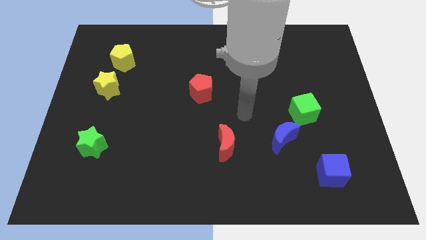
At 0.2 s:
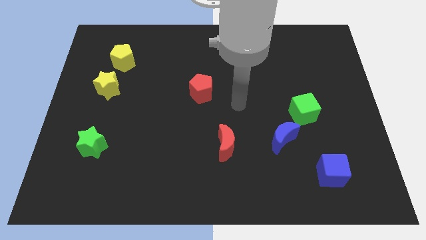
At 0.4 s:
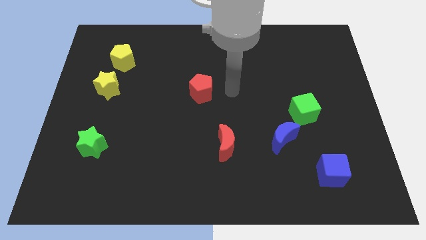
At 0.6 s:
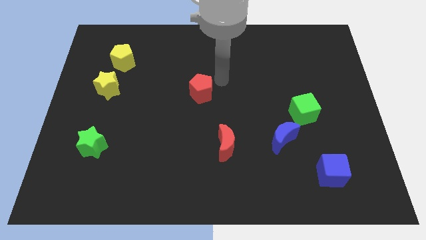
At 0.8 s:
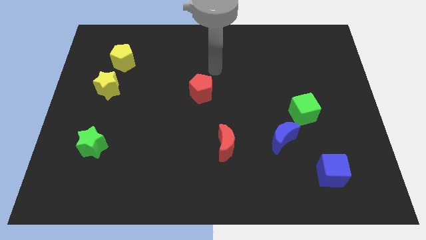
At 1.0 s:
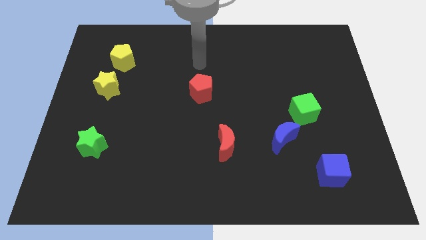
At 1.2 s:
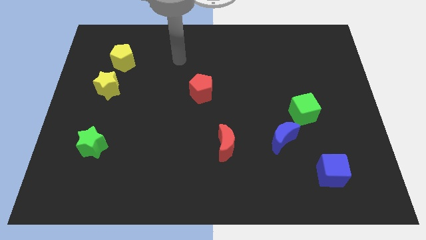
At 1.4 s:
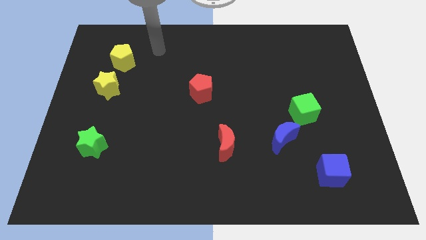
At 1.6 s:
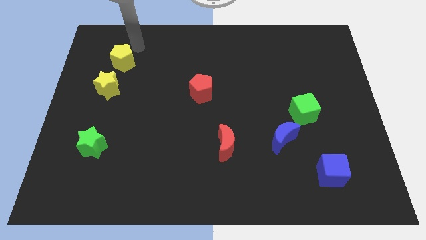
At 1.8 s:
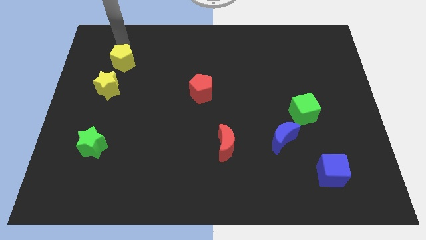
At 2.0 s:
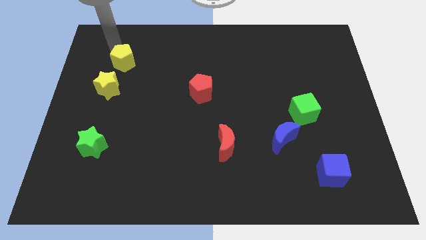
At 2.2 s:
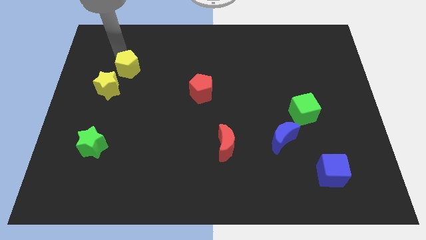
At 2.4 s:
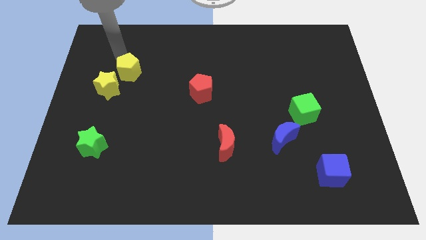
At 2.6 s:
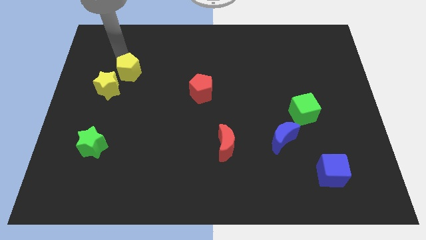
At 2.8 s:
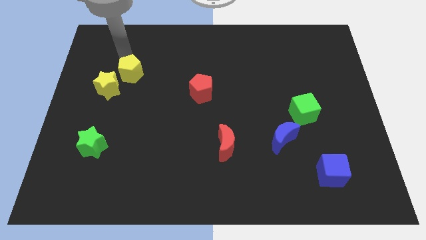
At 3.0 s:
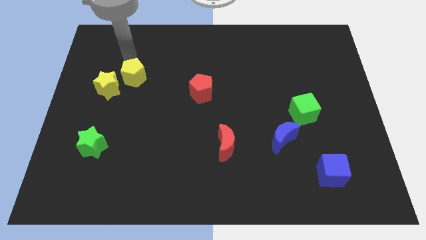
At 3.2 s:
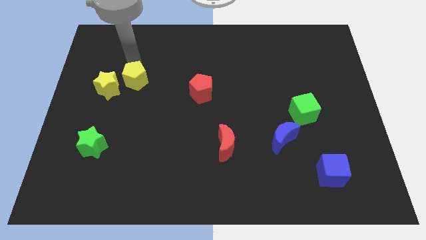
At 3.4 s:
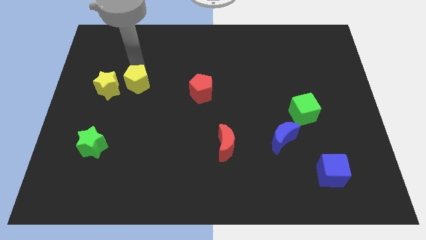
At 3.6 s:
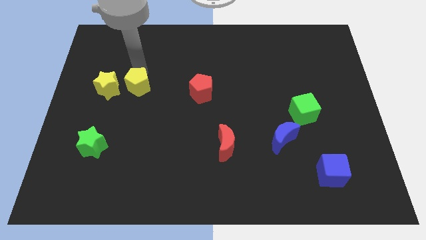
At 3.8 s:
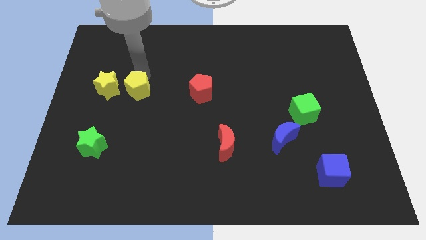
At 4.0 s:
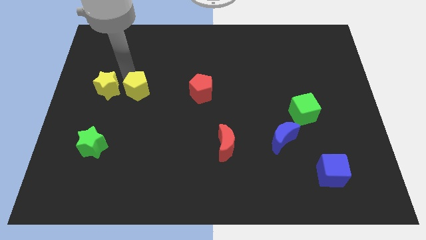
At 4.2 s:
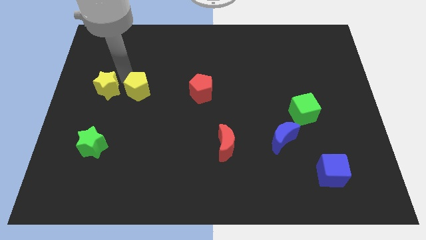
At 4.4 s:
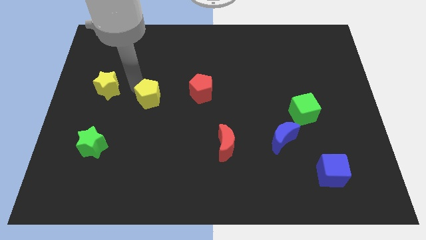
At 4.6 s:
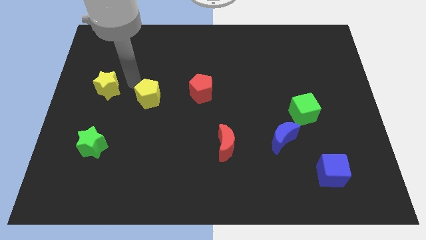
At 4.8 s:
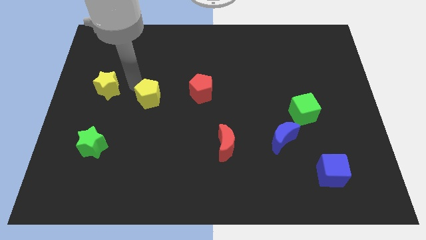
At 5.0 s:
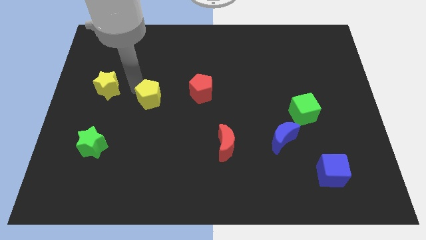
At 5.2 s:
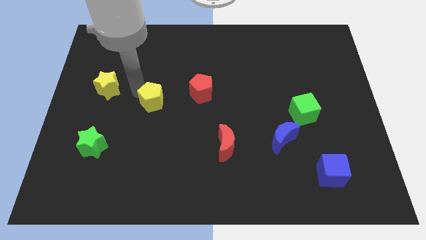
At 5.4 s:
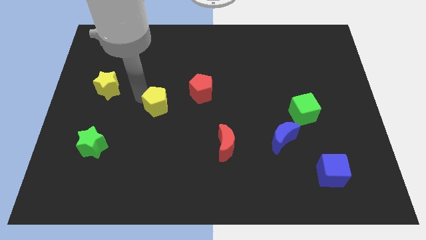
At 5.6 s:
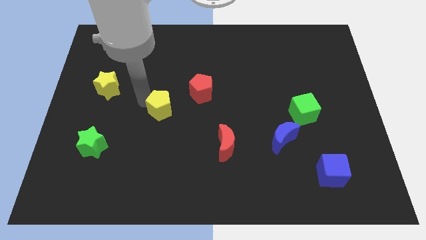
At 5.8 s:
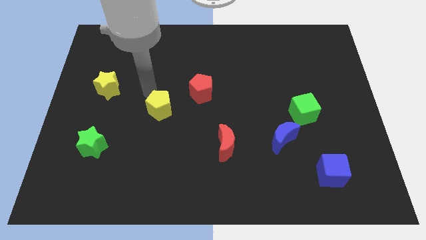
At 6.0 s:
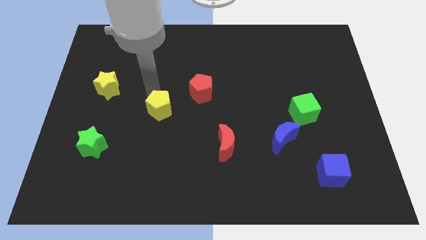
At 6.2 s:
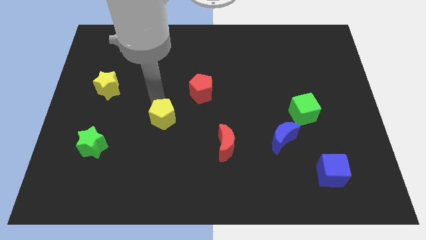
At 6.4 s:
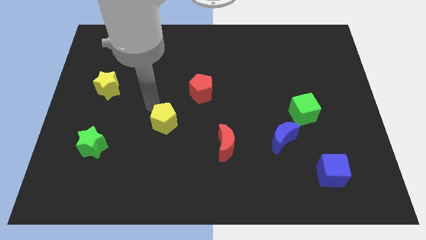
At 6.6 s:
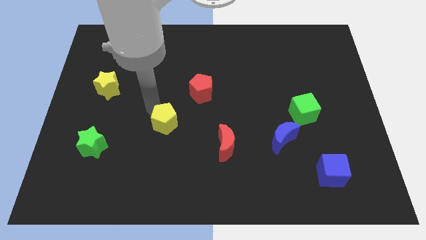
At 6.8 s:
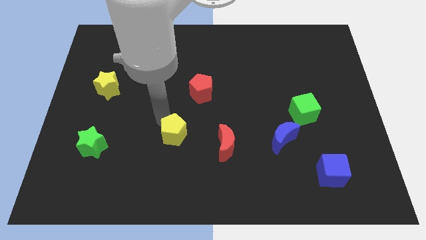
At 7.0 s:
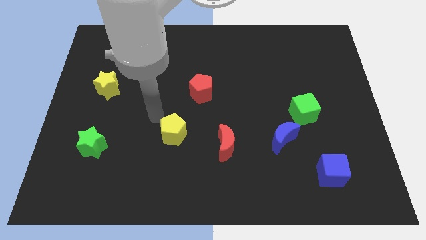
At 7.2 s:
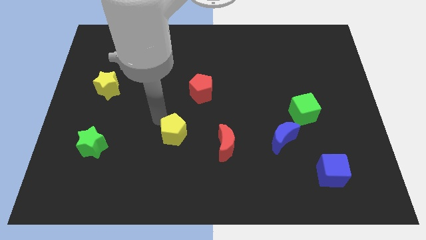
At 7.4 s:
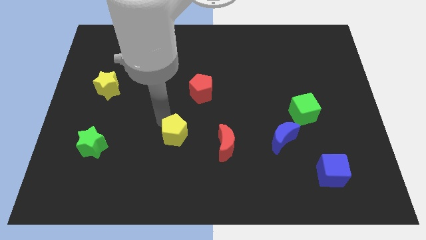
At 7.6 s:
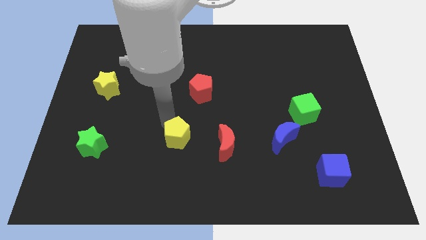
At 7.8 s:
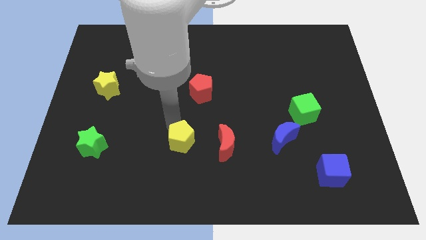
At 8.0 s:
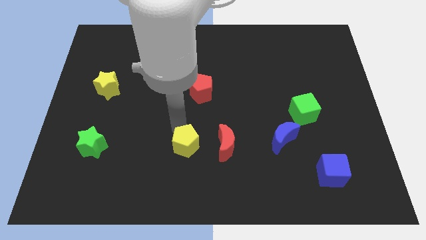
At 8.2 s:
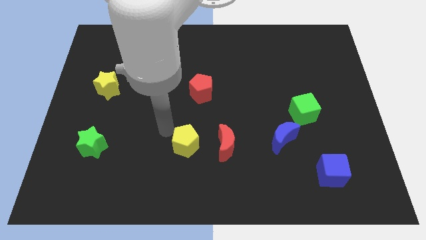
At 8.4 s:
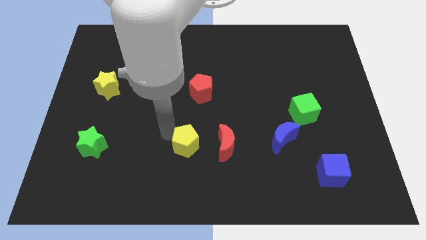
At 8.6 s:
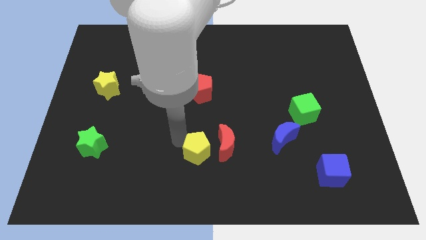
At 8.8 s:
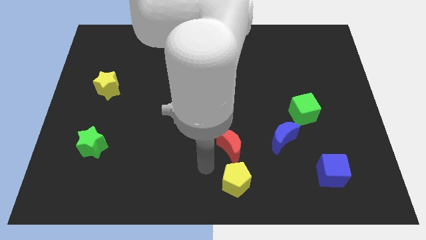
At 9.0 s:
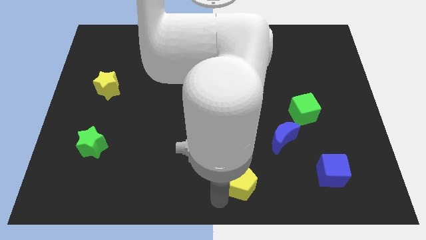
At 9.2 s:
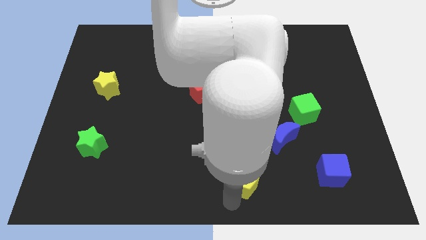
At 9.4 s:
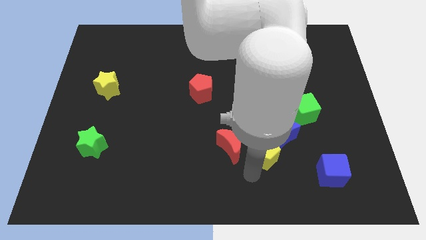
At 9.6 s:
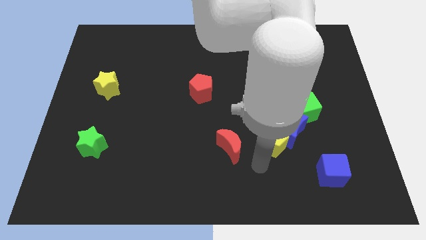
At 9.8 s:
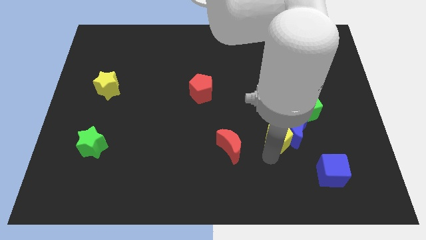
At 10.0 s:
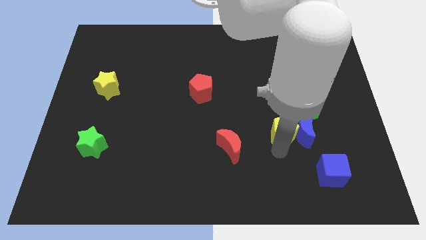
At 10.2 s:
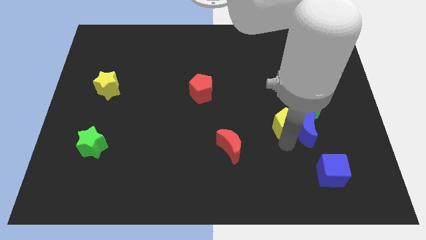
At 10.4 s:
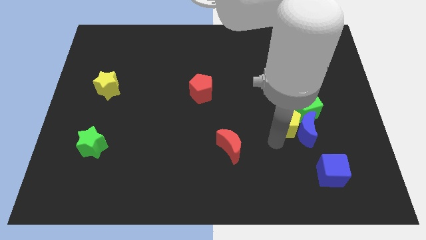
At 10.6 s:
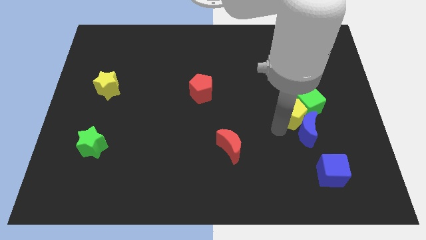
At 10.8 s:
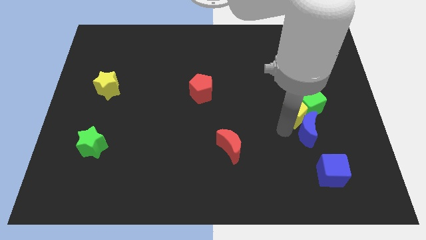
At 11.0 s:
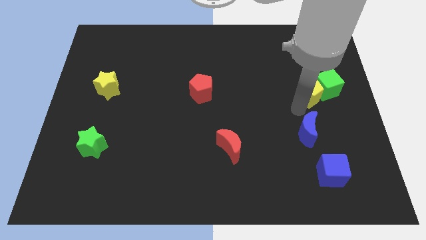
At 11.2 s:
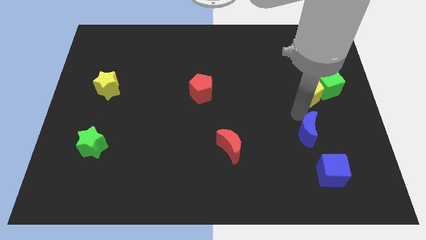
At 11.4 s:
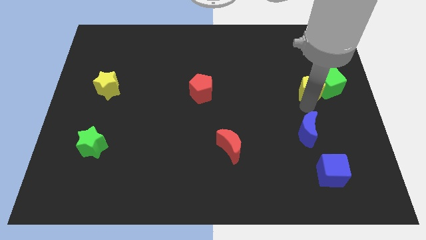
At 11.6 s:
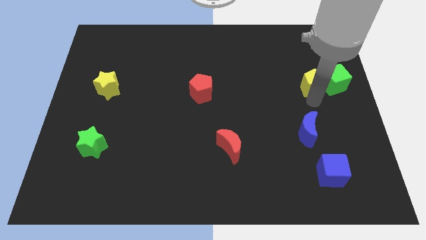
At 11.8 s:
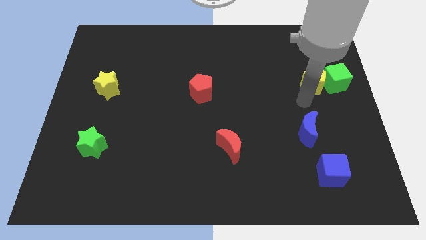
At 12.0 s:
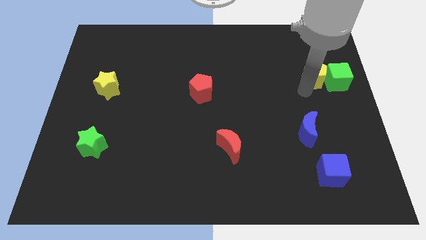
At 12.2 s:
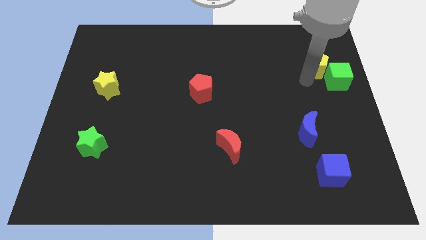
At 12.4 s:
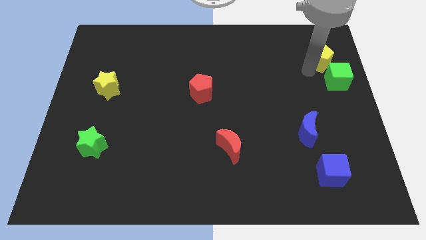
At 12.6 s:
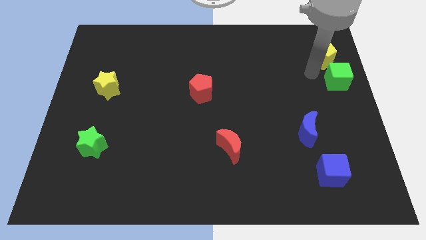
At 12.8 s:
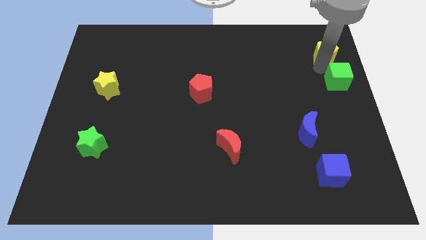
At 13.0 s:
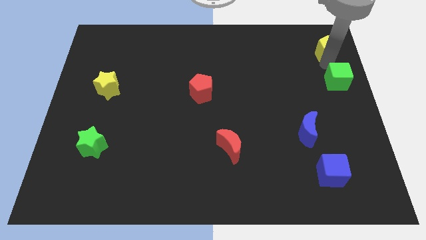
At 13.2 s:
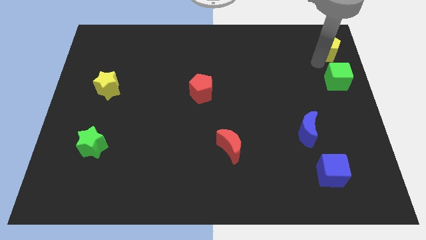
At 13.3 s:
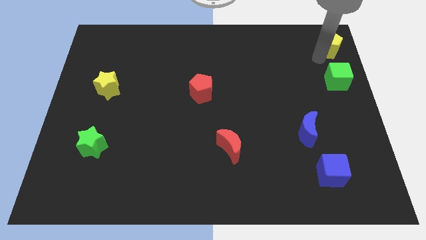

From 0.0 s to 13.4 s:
move the yellow pentagon to the upper right corner

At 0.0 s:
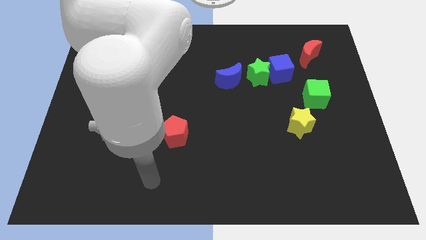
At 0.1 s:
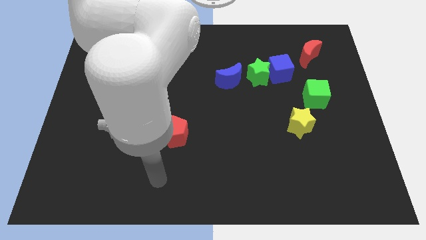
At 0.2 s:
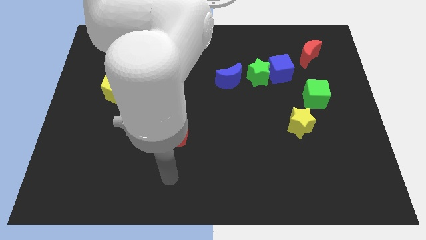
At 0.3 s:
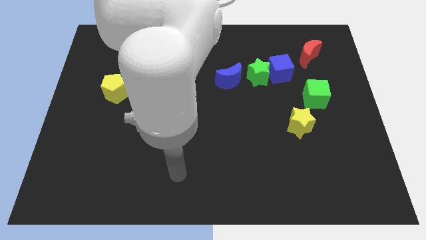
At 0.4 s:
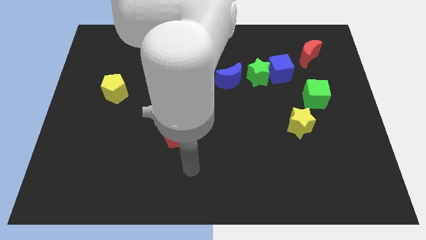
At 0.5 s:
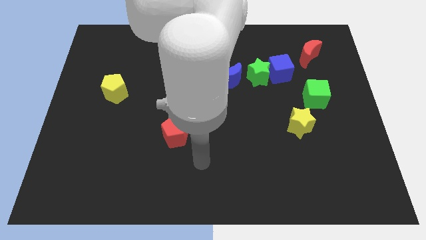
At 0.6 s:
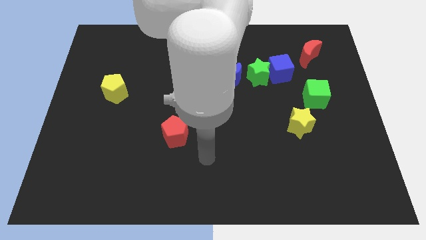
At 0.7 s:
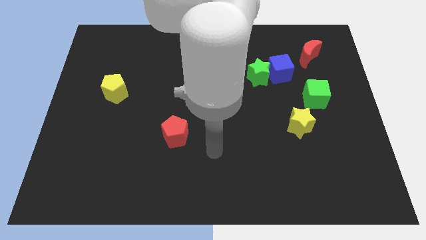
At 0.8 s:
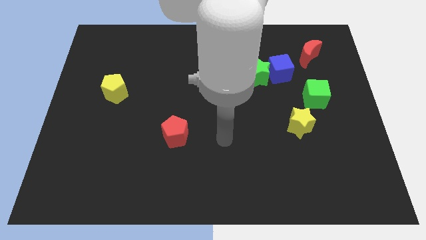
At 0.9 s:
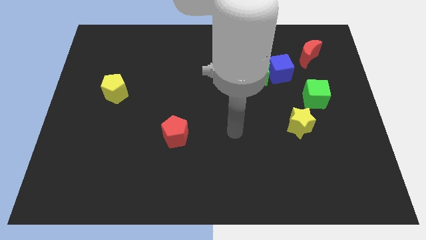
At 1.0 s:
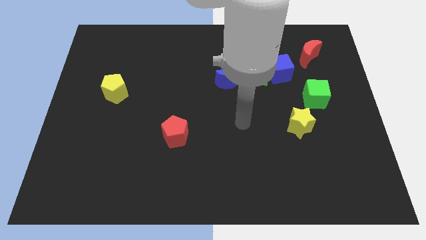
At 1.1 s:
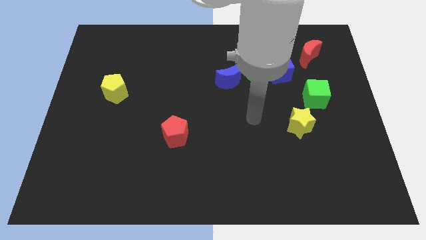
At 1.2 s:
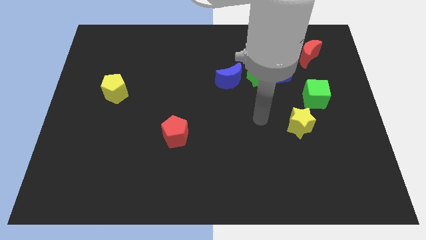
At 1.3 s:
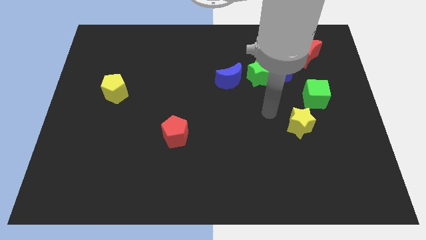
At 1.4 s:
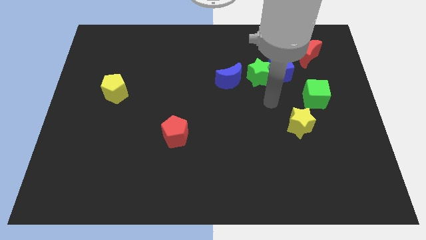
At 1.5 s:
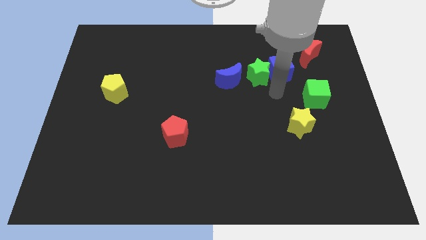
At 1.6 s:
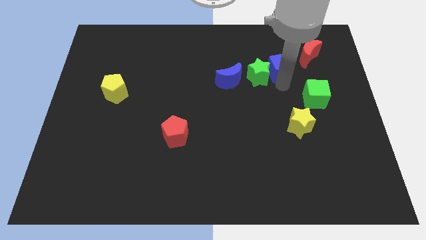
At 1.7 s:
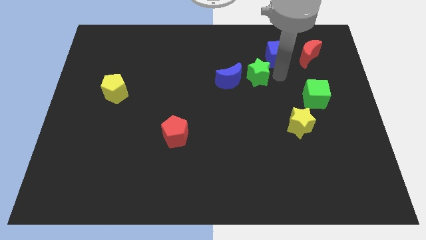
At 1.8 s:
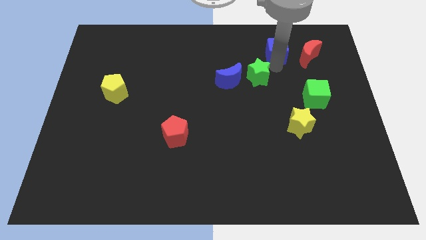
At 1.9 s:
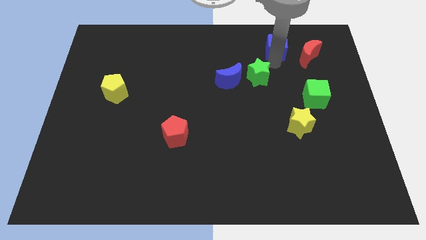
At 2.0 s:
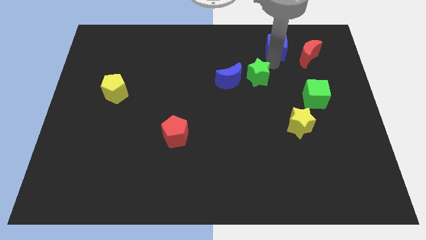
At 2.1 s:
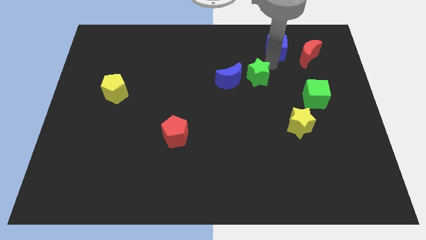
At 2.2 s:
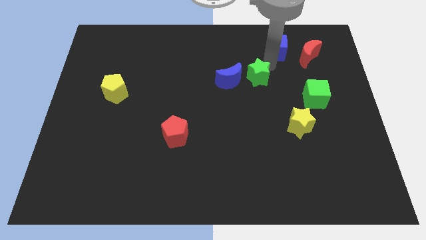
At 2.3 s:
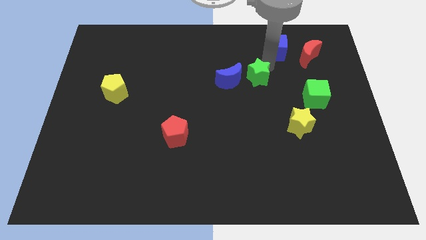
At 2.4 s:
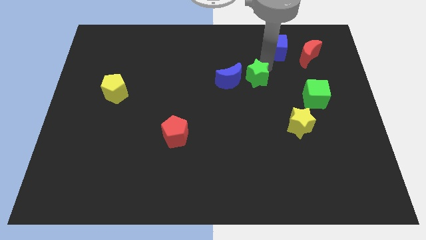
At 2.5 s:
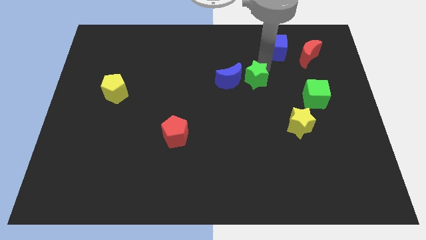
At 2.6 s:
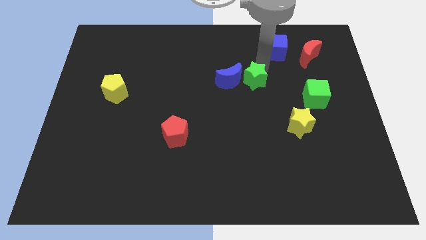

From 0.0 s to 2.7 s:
push the green star to the center of the board
